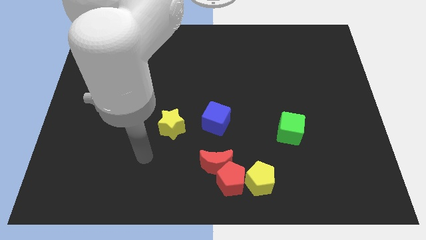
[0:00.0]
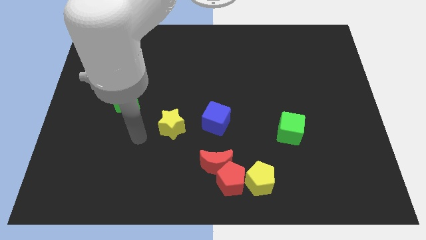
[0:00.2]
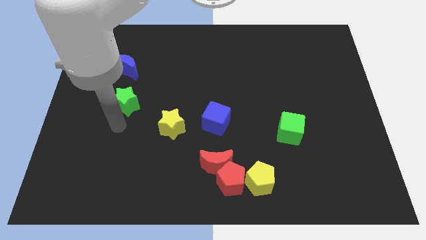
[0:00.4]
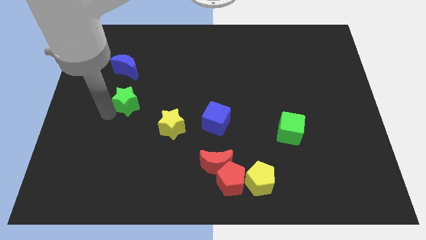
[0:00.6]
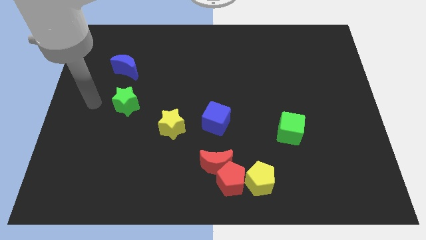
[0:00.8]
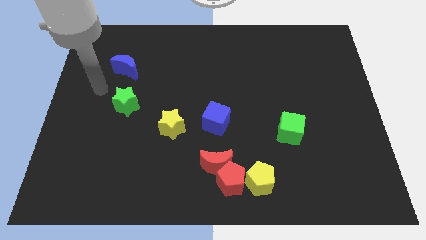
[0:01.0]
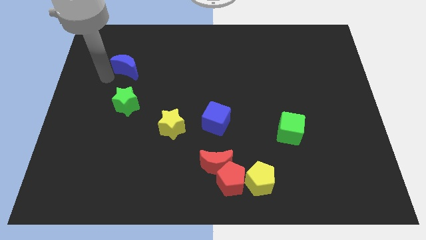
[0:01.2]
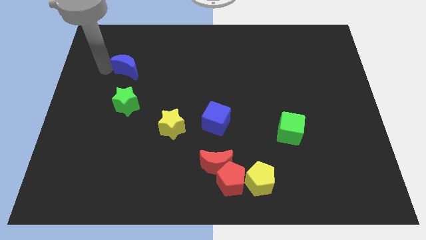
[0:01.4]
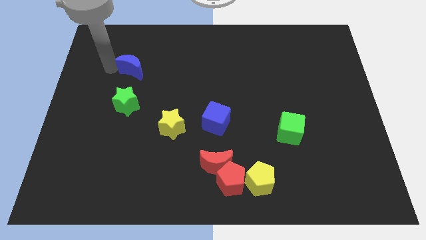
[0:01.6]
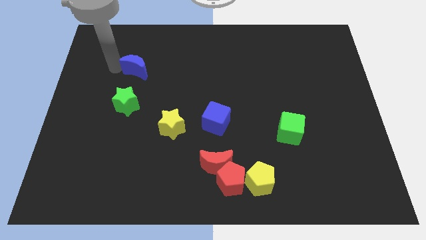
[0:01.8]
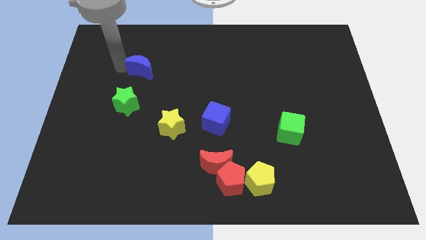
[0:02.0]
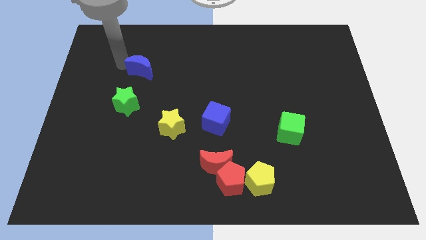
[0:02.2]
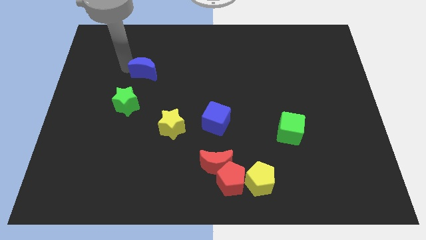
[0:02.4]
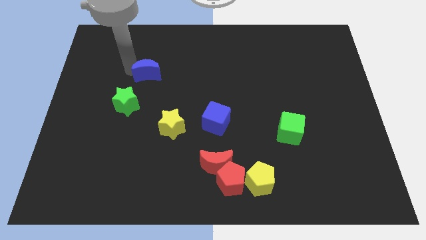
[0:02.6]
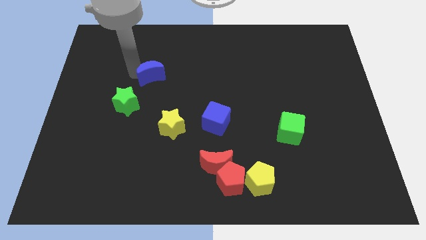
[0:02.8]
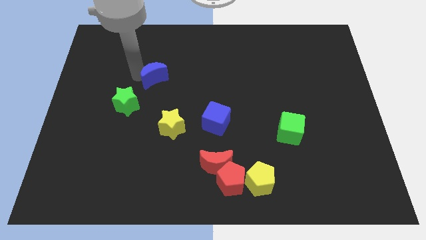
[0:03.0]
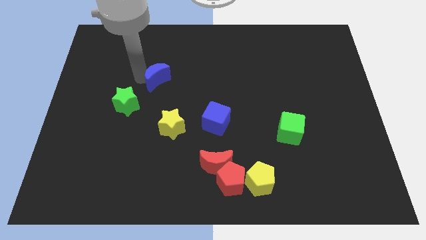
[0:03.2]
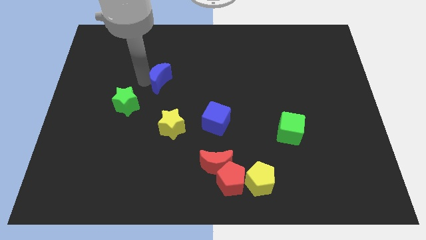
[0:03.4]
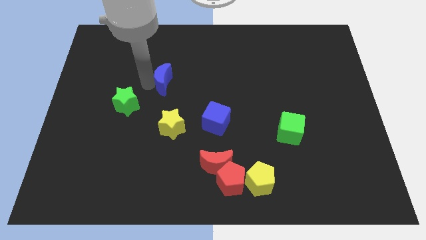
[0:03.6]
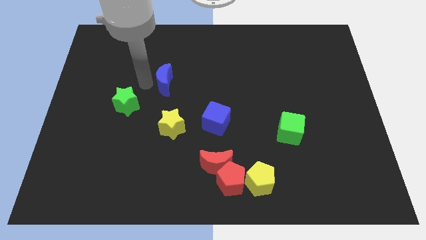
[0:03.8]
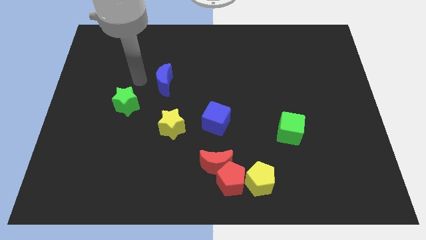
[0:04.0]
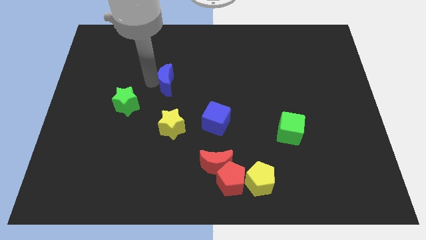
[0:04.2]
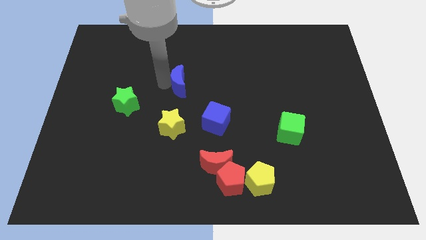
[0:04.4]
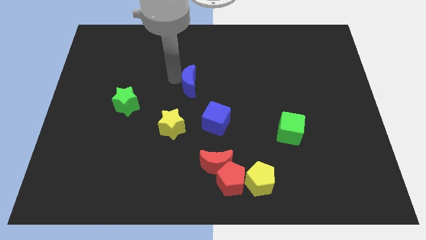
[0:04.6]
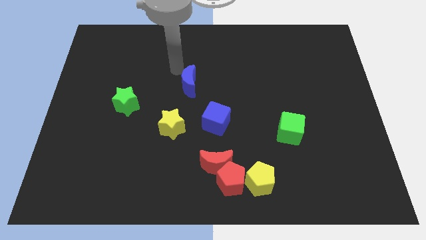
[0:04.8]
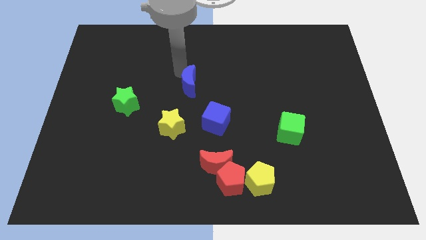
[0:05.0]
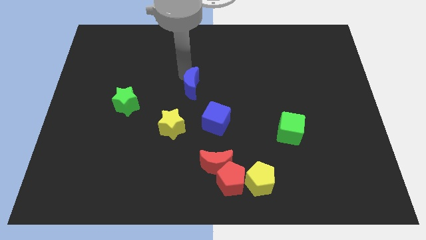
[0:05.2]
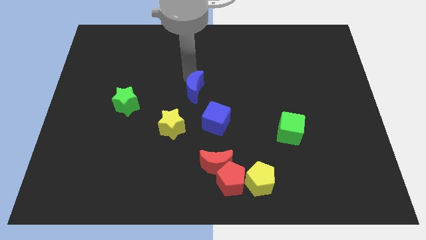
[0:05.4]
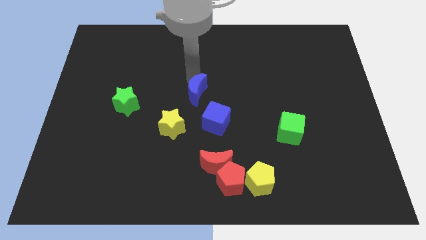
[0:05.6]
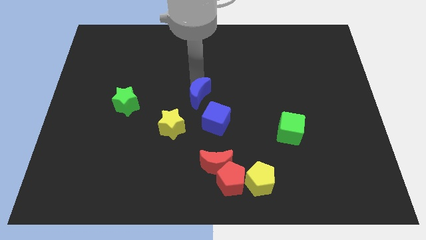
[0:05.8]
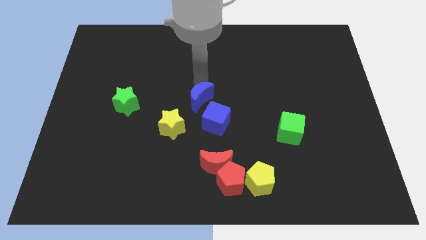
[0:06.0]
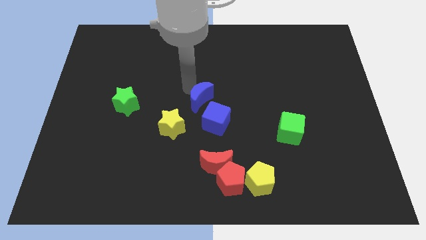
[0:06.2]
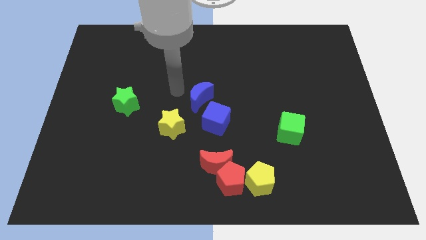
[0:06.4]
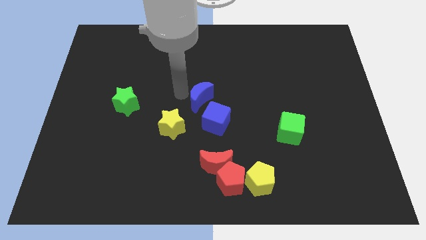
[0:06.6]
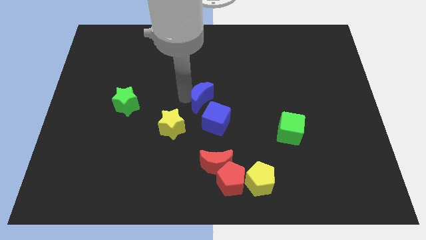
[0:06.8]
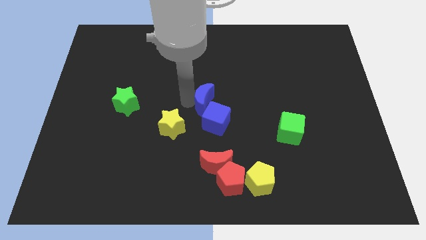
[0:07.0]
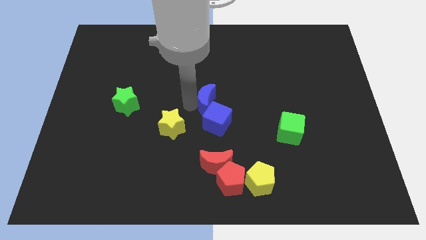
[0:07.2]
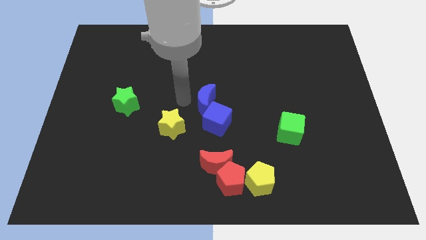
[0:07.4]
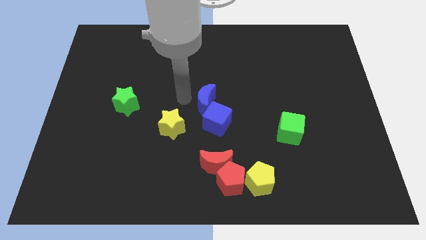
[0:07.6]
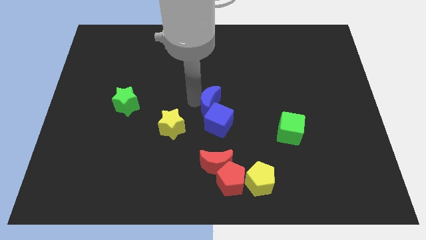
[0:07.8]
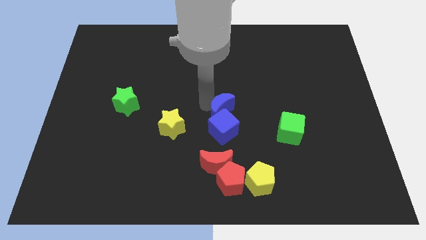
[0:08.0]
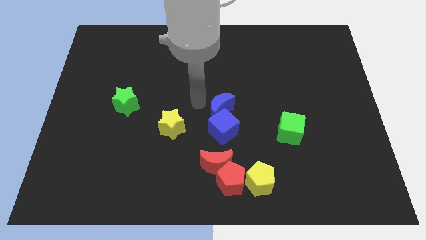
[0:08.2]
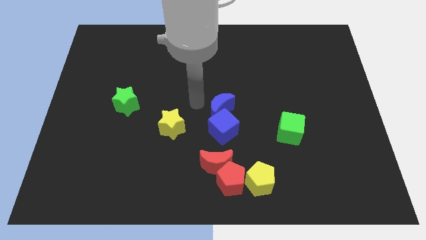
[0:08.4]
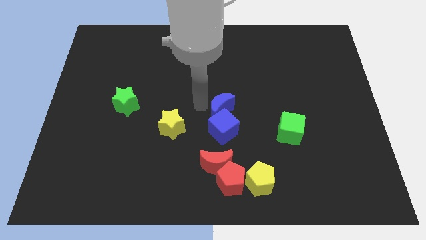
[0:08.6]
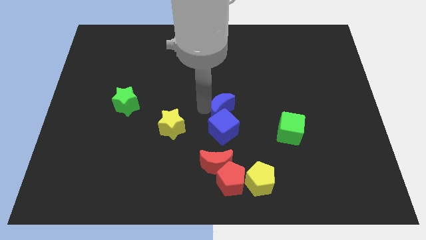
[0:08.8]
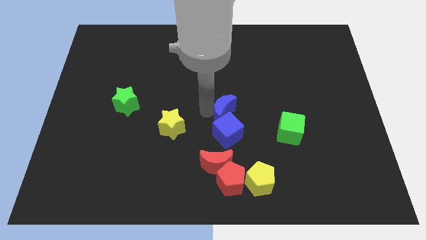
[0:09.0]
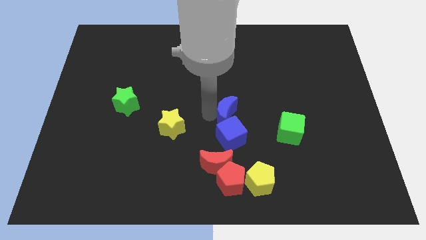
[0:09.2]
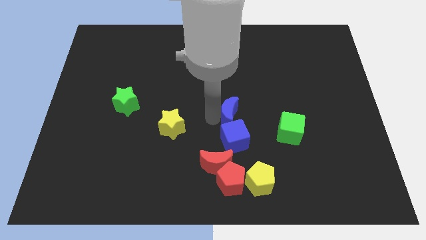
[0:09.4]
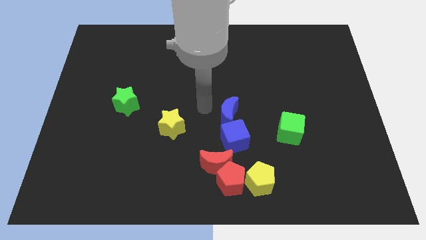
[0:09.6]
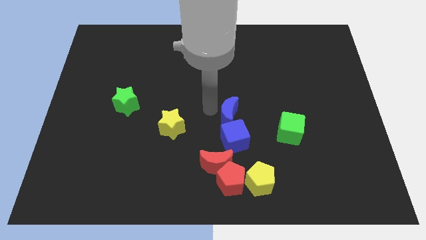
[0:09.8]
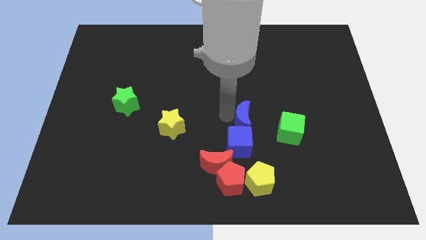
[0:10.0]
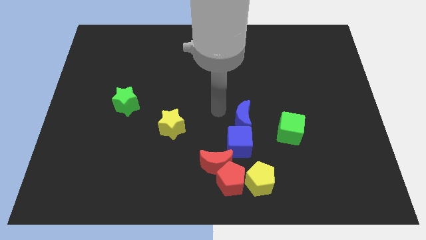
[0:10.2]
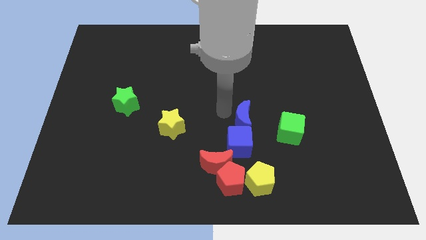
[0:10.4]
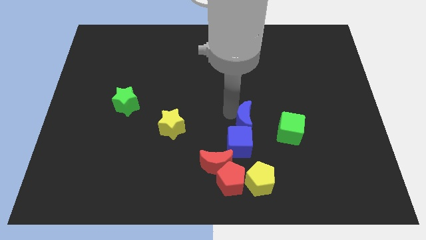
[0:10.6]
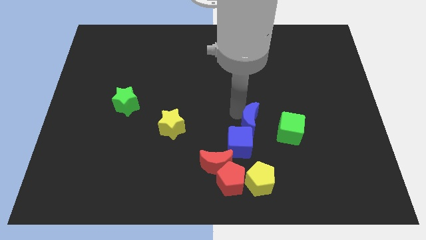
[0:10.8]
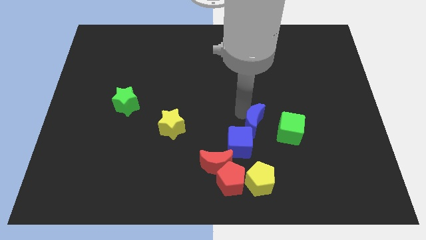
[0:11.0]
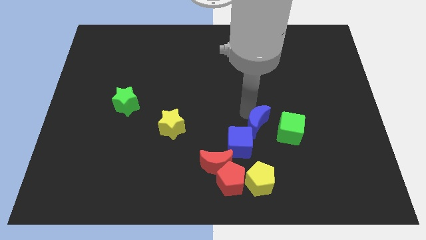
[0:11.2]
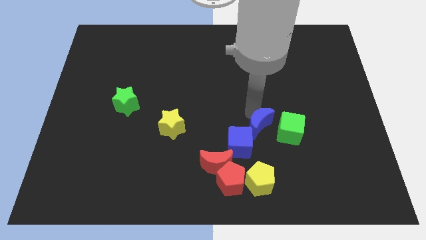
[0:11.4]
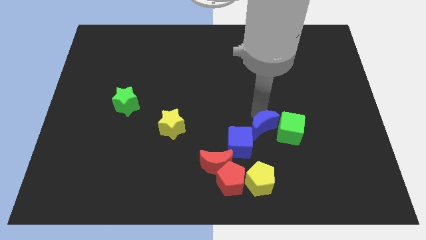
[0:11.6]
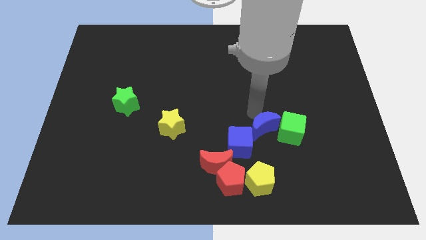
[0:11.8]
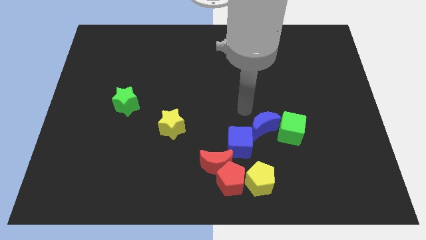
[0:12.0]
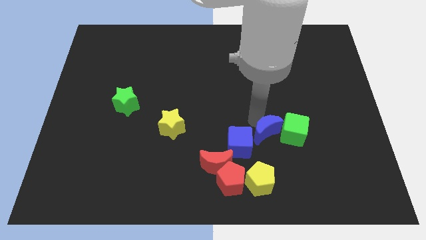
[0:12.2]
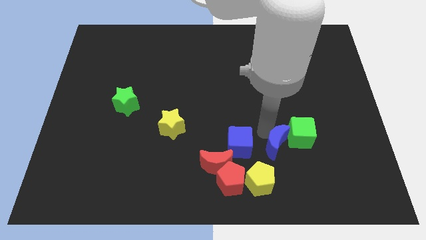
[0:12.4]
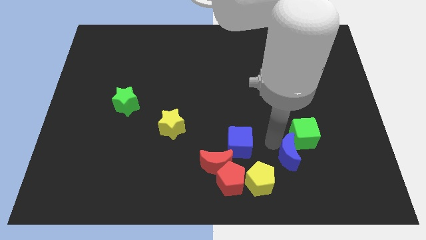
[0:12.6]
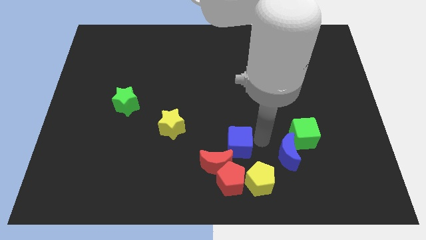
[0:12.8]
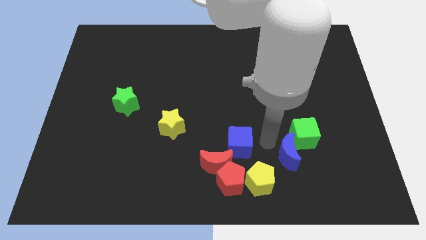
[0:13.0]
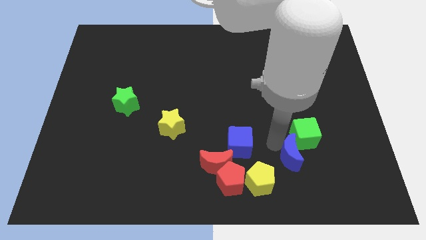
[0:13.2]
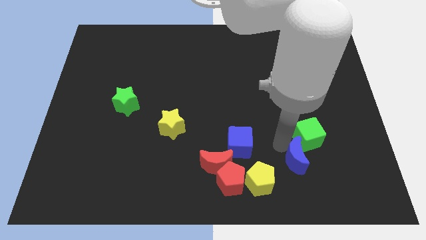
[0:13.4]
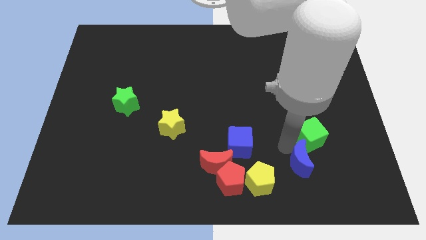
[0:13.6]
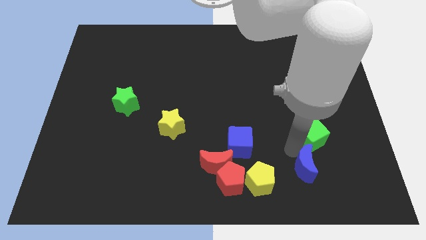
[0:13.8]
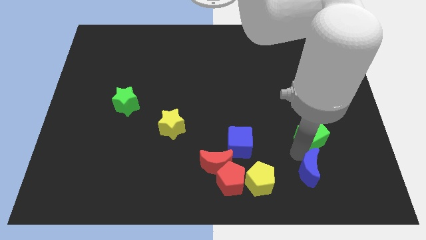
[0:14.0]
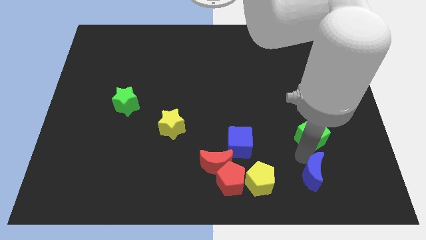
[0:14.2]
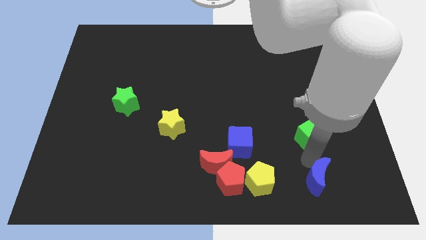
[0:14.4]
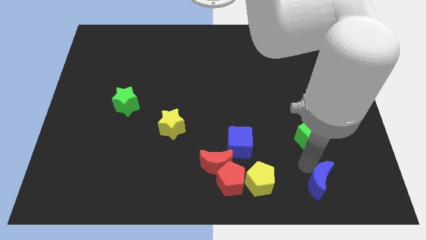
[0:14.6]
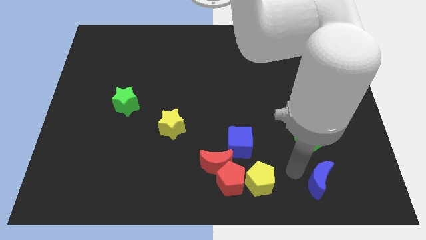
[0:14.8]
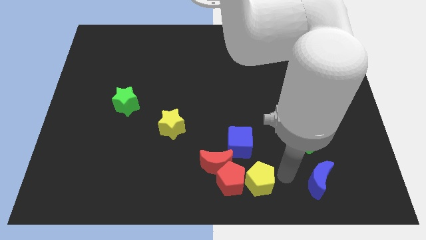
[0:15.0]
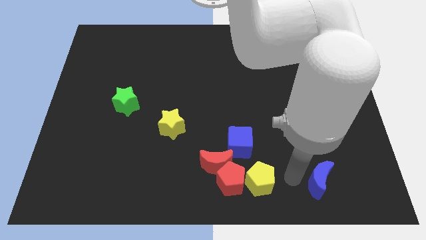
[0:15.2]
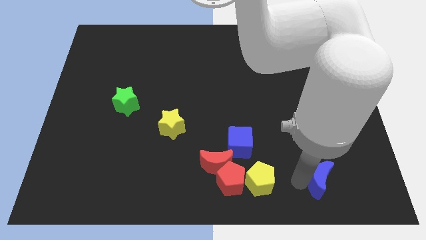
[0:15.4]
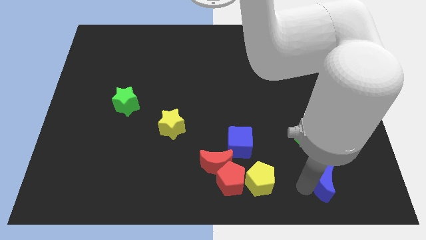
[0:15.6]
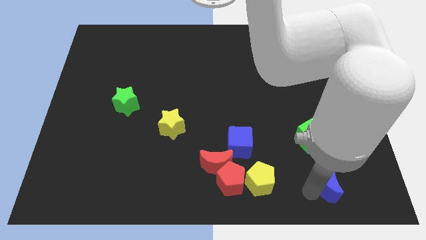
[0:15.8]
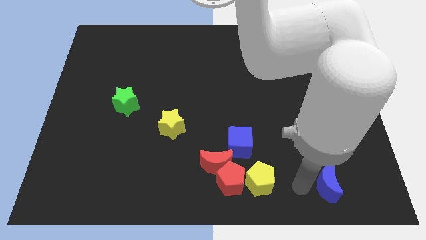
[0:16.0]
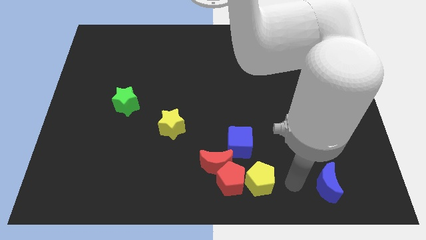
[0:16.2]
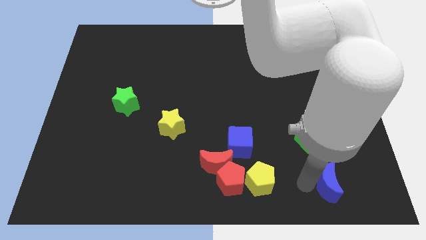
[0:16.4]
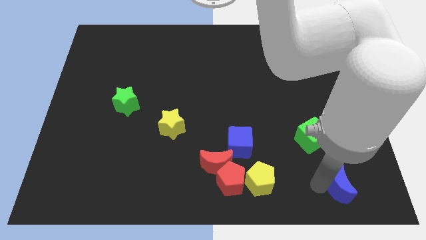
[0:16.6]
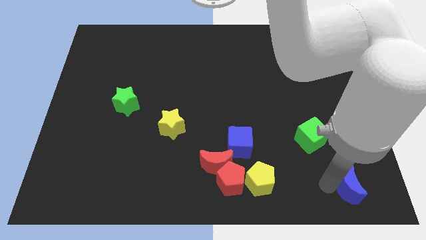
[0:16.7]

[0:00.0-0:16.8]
put the blue moon to the lower right corner
